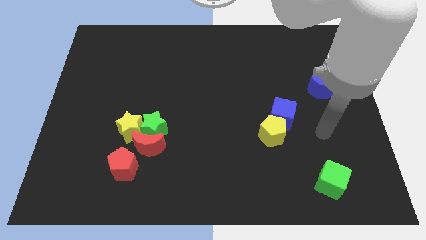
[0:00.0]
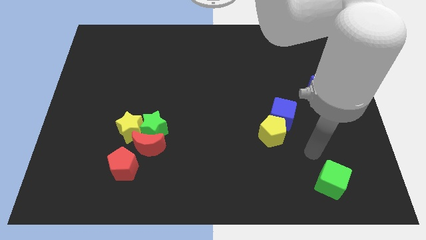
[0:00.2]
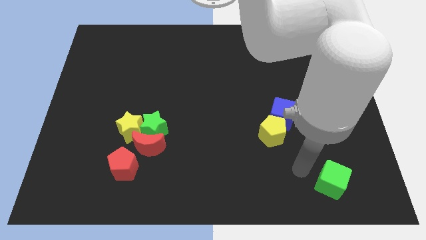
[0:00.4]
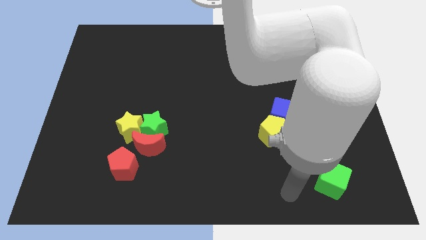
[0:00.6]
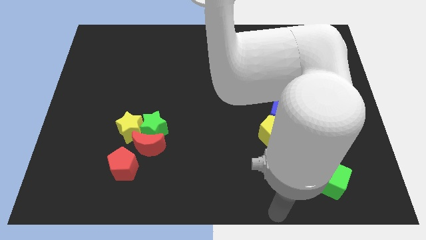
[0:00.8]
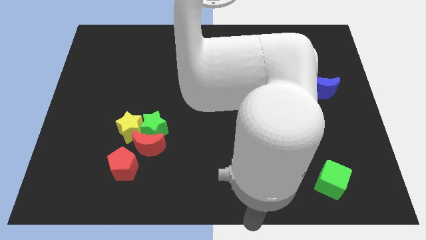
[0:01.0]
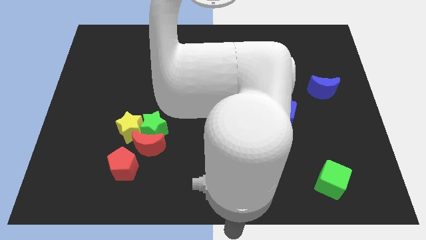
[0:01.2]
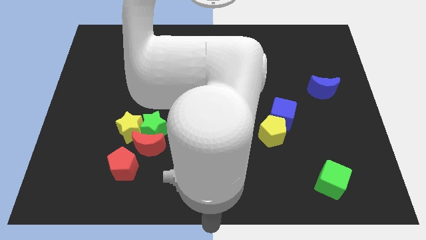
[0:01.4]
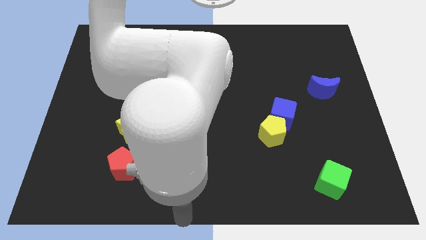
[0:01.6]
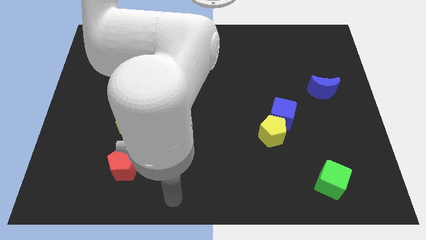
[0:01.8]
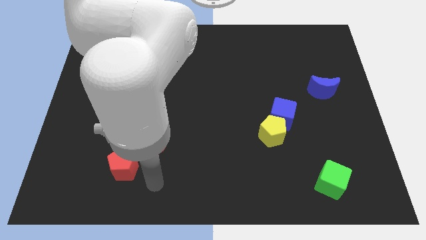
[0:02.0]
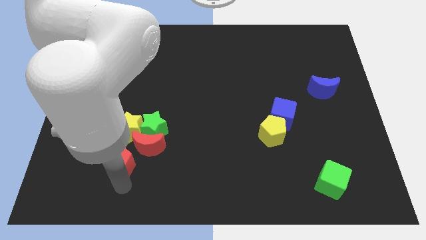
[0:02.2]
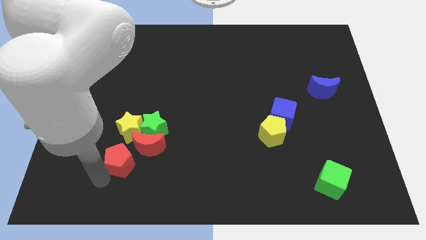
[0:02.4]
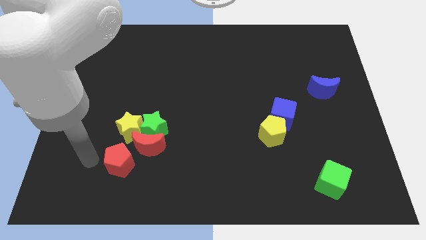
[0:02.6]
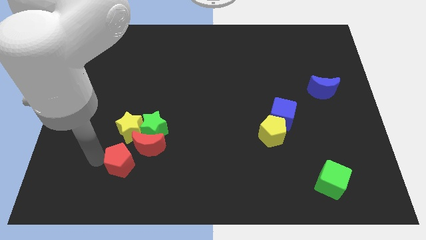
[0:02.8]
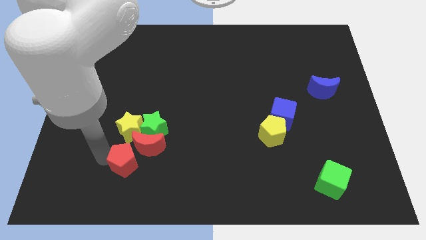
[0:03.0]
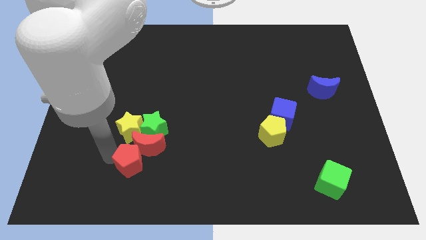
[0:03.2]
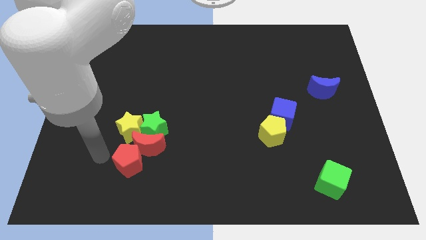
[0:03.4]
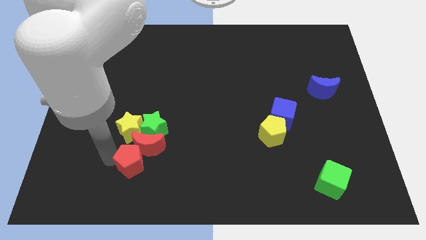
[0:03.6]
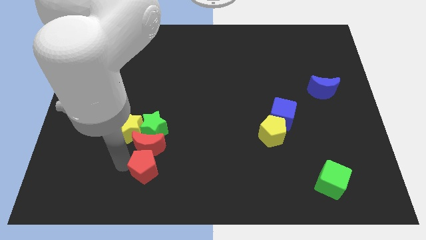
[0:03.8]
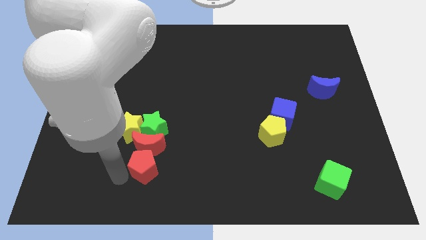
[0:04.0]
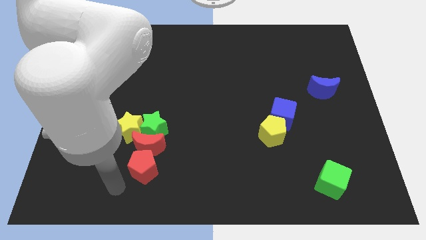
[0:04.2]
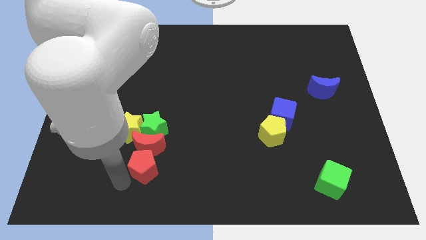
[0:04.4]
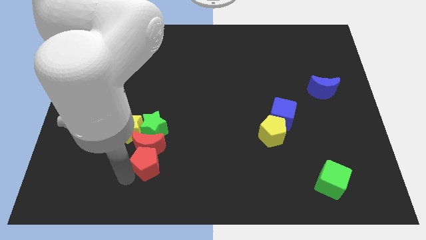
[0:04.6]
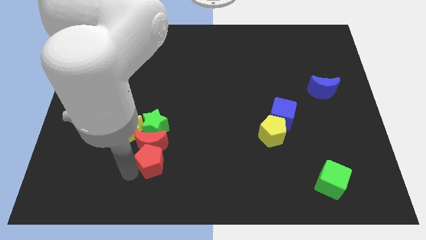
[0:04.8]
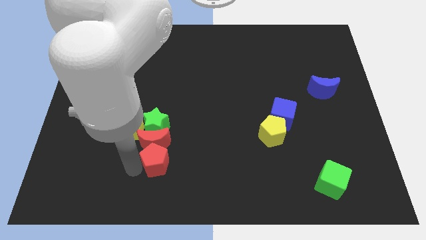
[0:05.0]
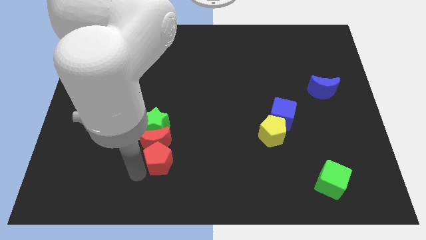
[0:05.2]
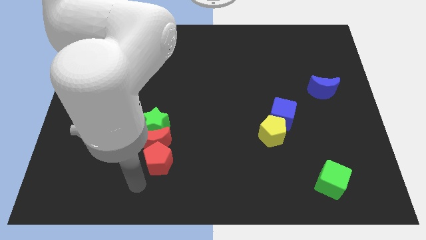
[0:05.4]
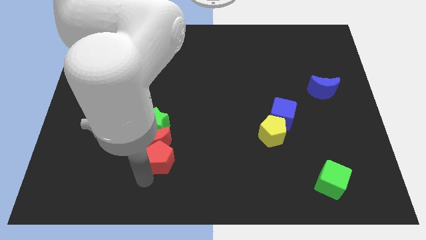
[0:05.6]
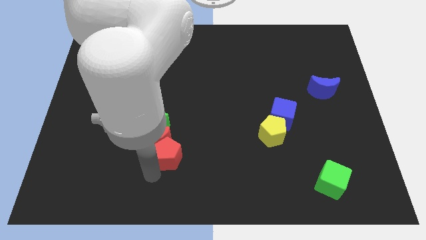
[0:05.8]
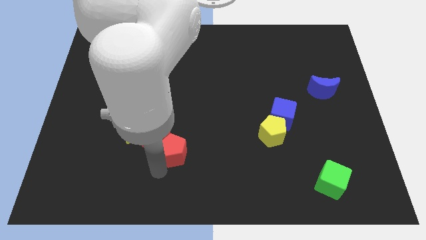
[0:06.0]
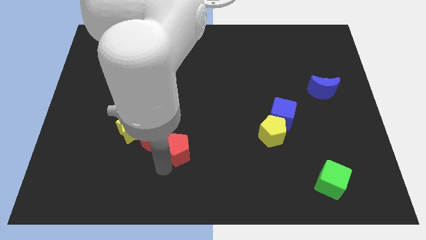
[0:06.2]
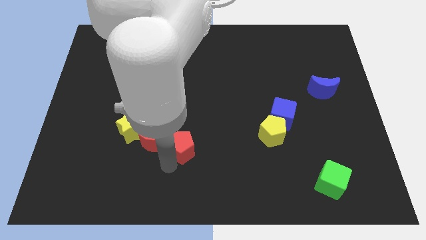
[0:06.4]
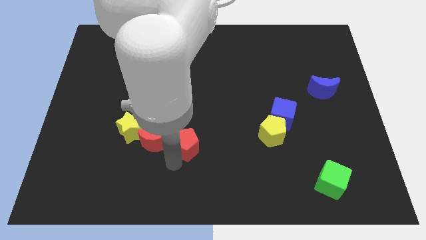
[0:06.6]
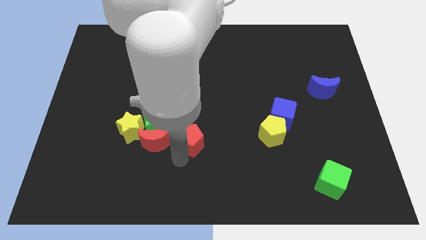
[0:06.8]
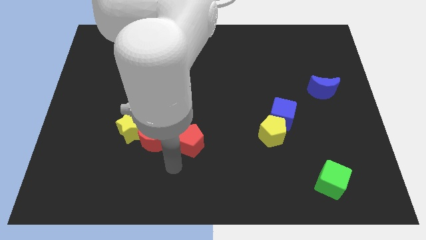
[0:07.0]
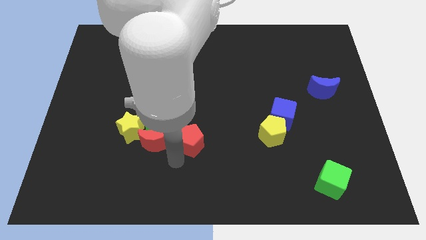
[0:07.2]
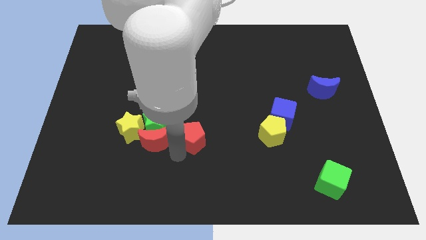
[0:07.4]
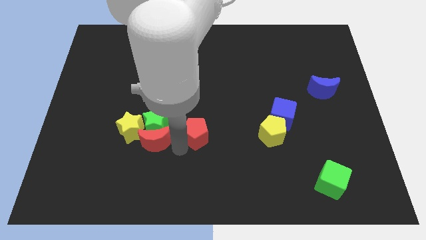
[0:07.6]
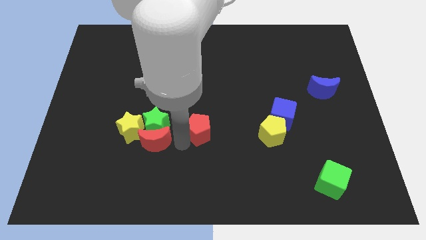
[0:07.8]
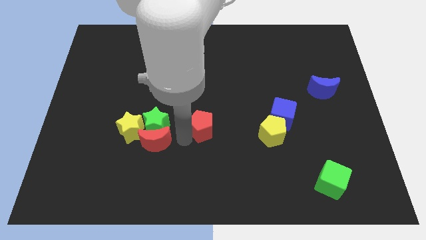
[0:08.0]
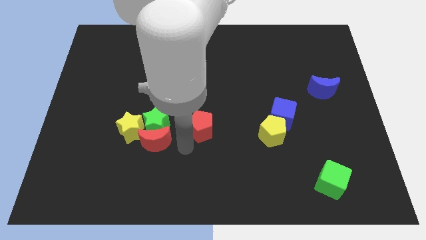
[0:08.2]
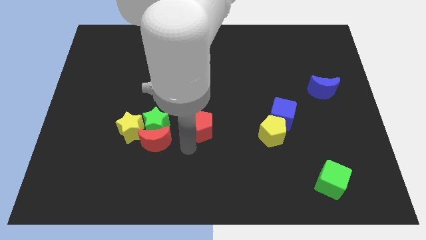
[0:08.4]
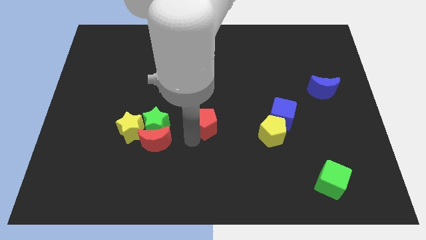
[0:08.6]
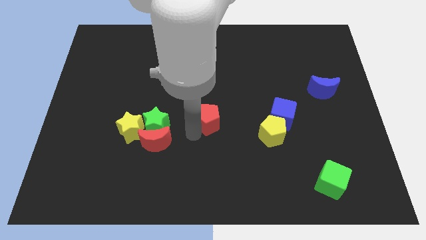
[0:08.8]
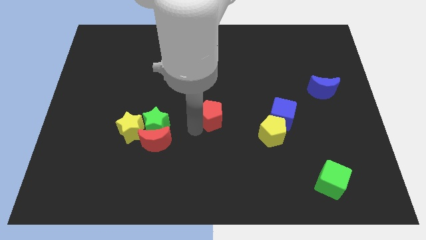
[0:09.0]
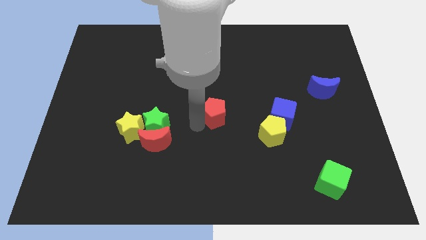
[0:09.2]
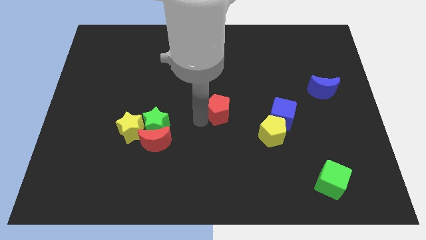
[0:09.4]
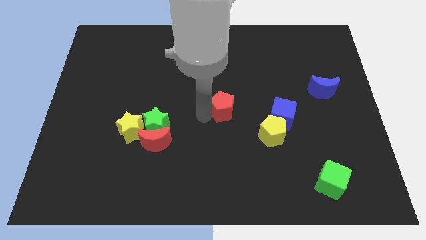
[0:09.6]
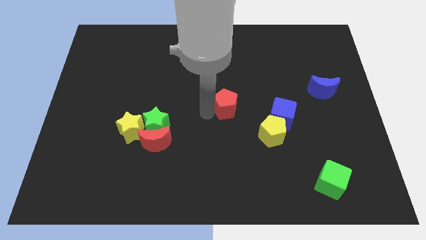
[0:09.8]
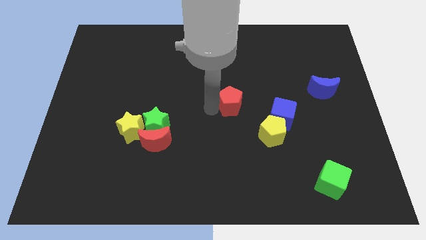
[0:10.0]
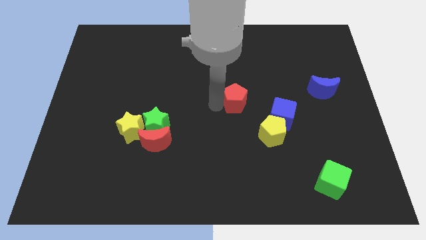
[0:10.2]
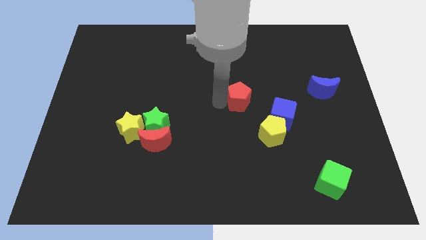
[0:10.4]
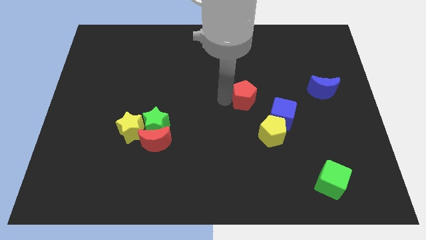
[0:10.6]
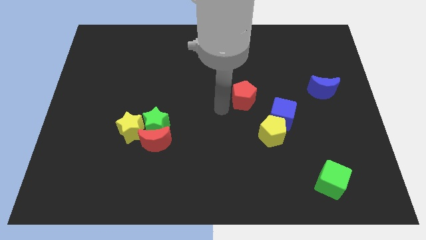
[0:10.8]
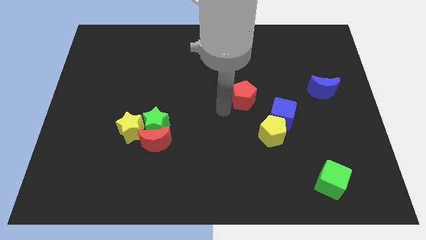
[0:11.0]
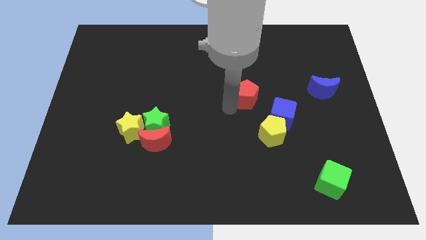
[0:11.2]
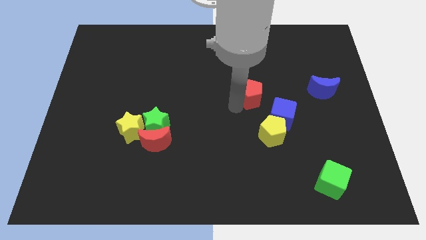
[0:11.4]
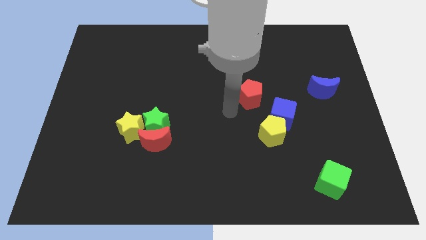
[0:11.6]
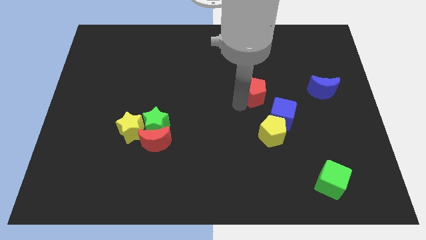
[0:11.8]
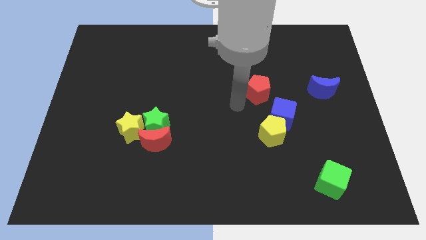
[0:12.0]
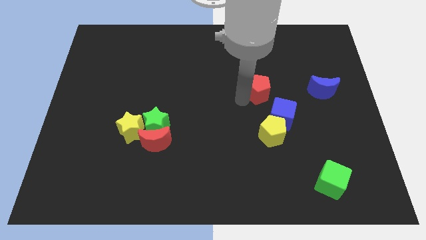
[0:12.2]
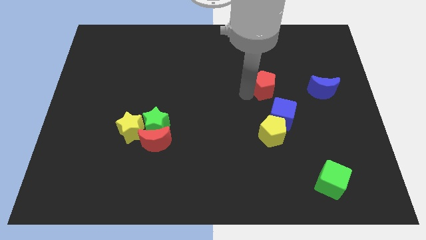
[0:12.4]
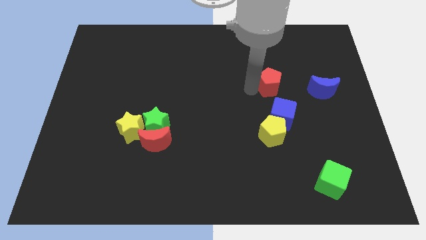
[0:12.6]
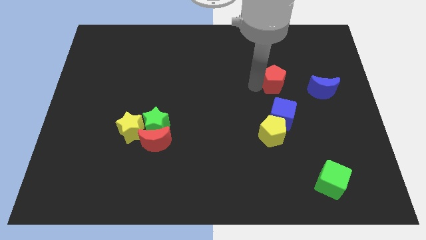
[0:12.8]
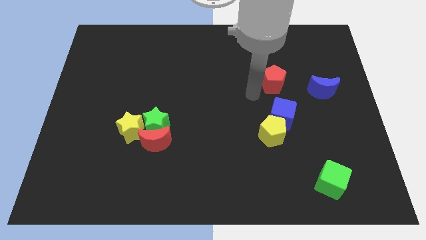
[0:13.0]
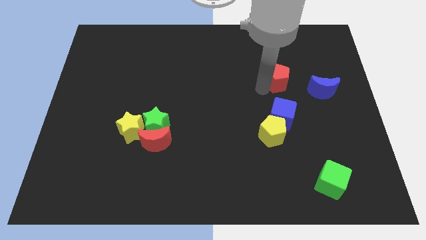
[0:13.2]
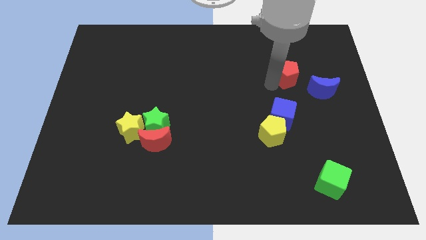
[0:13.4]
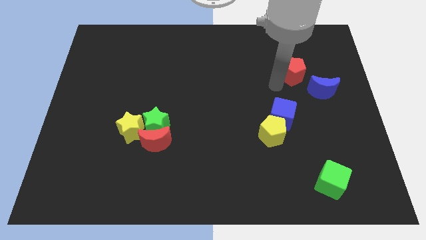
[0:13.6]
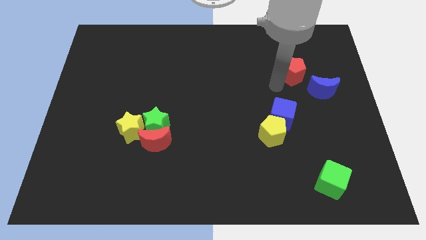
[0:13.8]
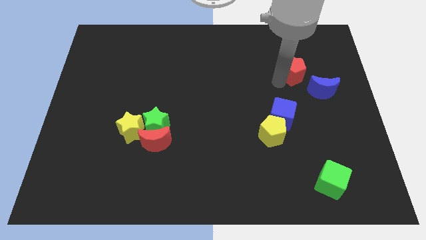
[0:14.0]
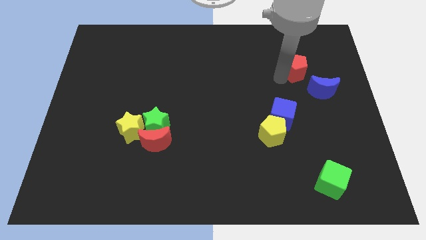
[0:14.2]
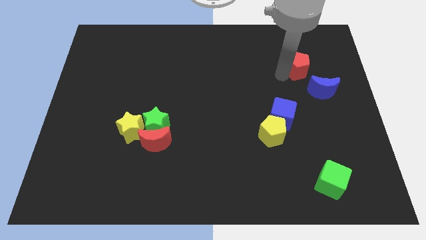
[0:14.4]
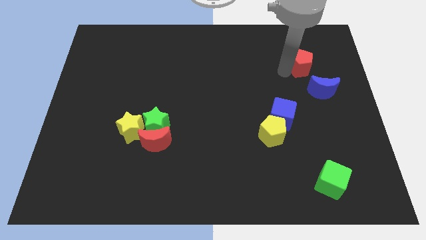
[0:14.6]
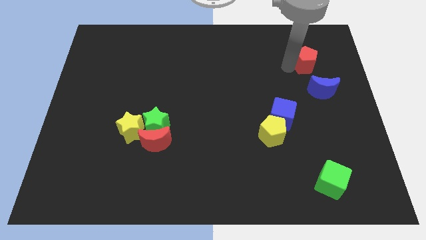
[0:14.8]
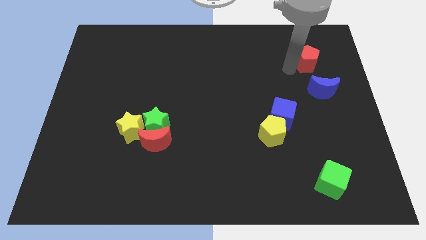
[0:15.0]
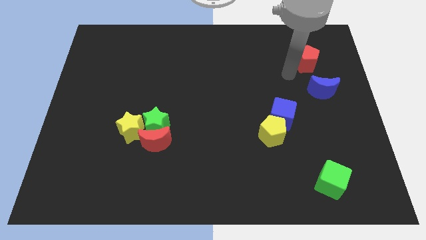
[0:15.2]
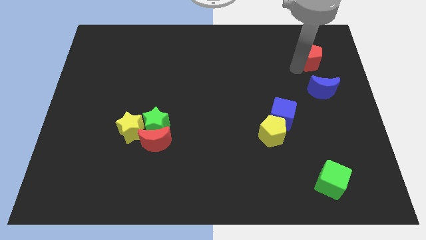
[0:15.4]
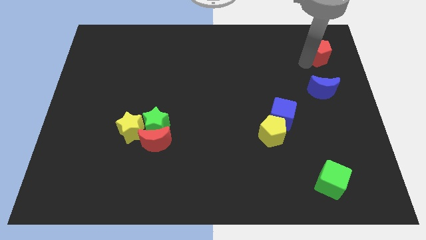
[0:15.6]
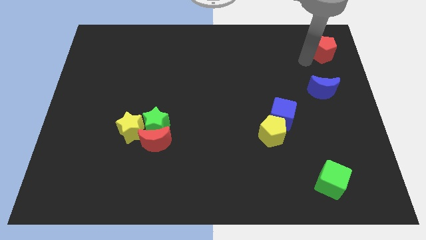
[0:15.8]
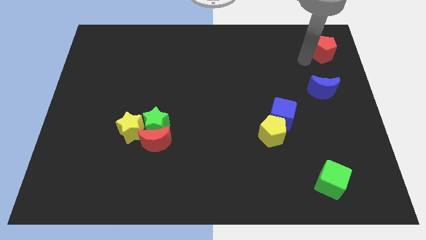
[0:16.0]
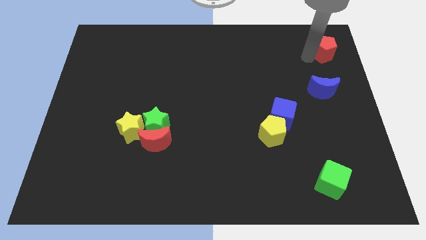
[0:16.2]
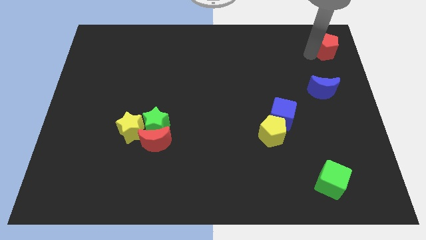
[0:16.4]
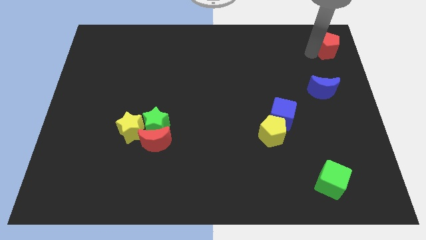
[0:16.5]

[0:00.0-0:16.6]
put the red pentagon to the top right of the board
